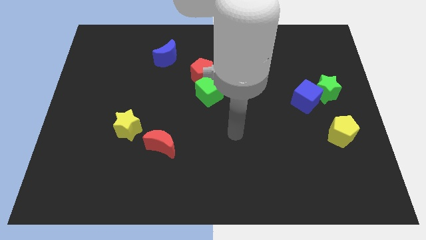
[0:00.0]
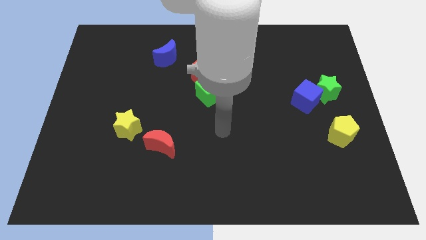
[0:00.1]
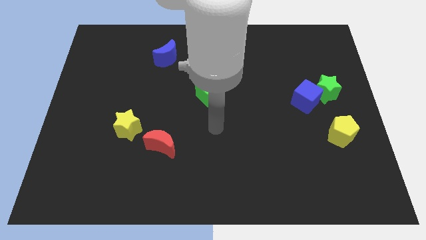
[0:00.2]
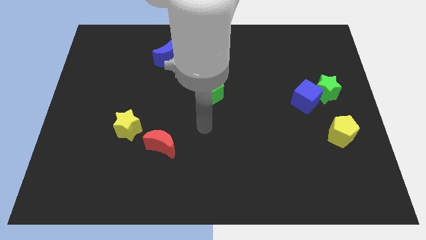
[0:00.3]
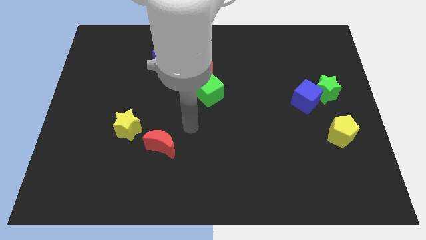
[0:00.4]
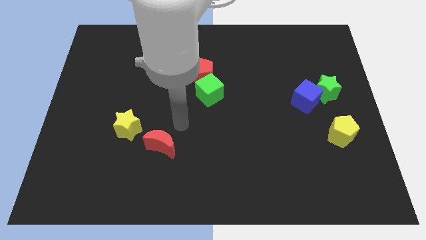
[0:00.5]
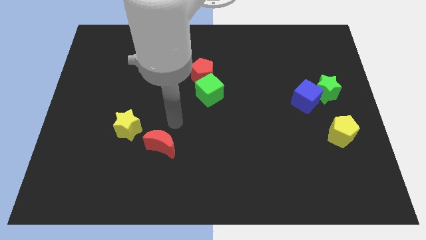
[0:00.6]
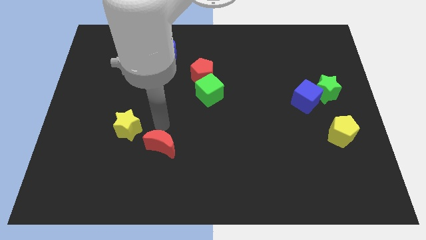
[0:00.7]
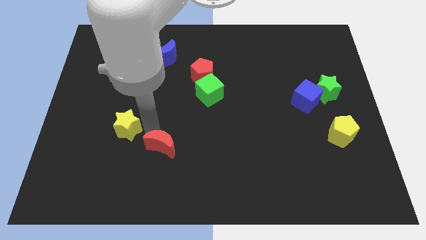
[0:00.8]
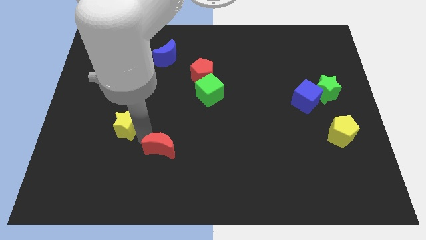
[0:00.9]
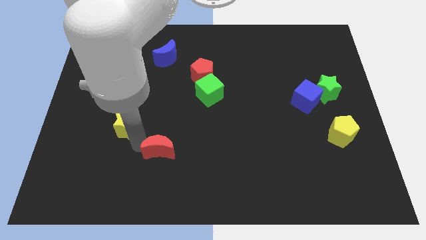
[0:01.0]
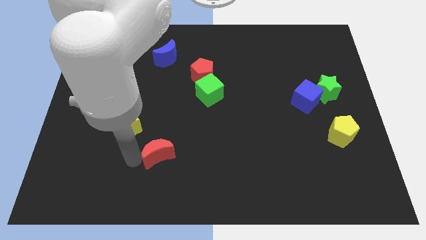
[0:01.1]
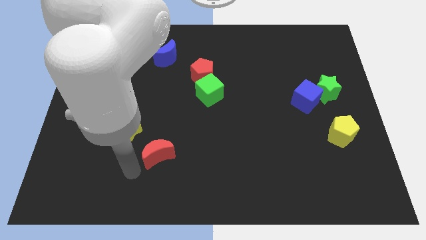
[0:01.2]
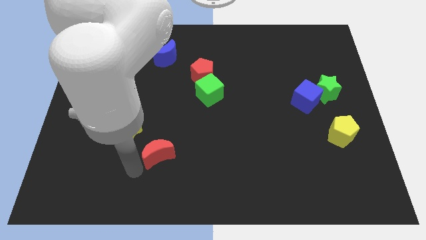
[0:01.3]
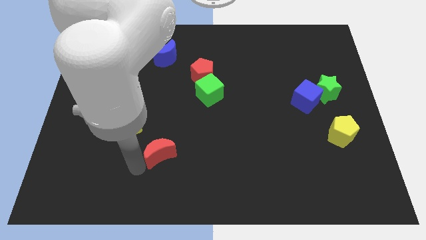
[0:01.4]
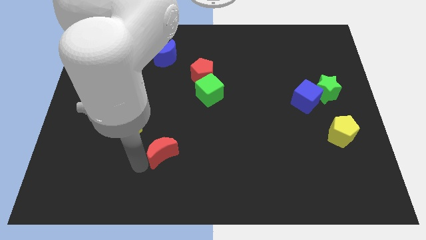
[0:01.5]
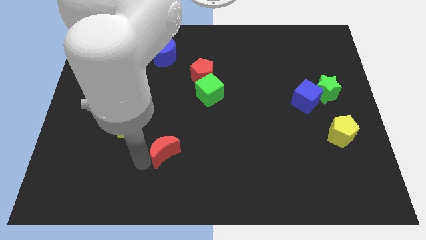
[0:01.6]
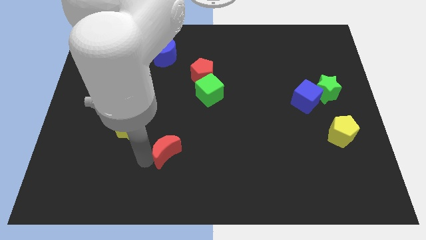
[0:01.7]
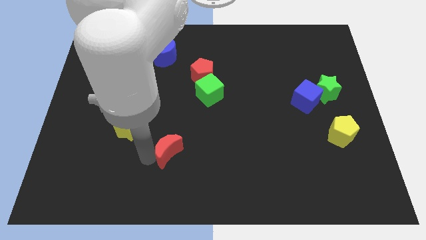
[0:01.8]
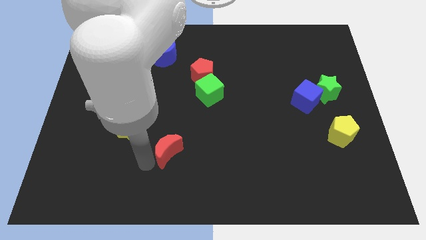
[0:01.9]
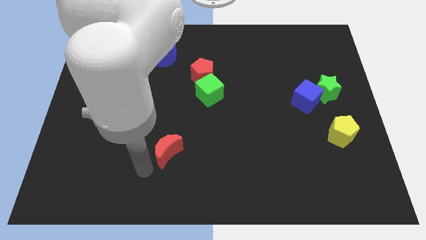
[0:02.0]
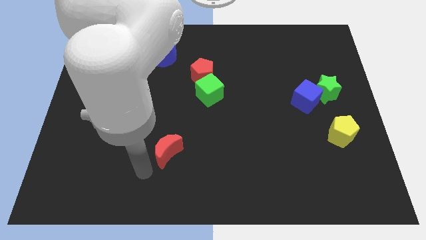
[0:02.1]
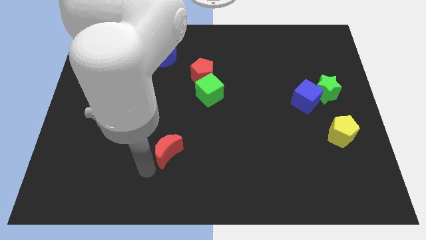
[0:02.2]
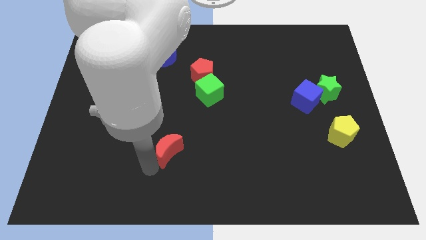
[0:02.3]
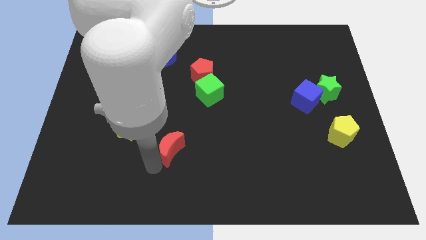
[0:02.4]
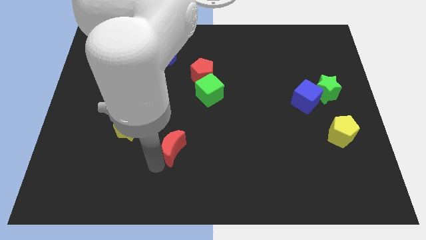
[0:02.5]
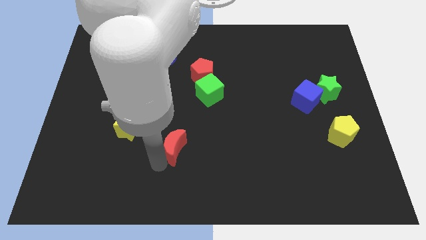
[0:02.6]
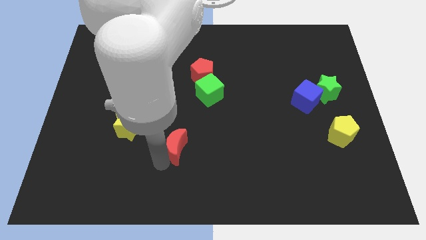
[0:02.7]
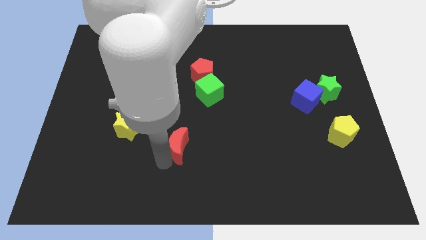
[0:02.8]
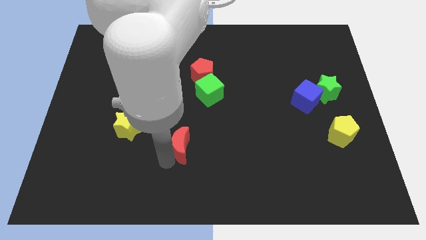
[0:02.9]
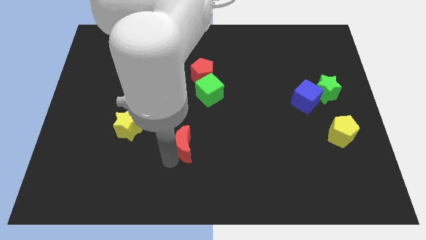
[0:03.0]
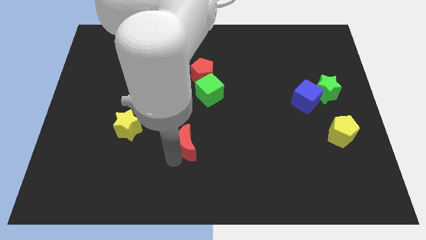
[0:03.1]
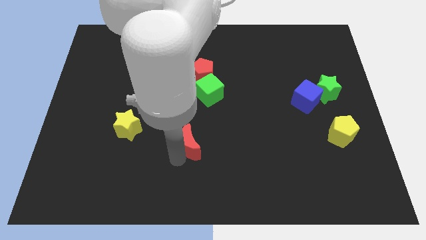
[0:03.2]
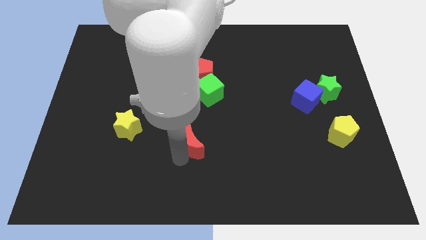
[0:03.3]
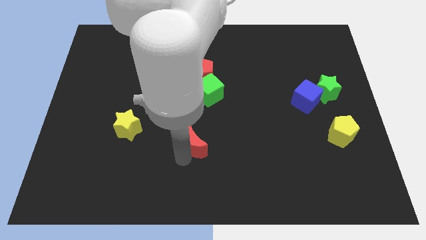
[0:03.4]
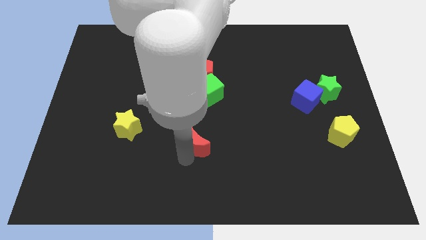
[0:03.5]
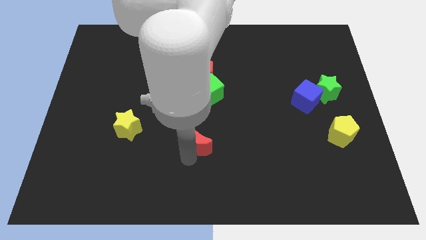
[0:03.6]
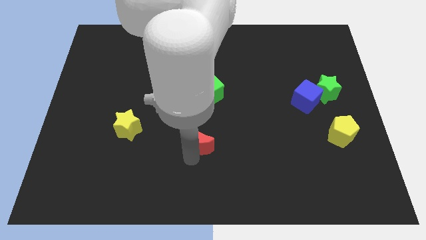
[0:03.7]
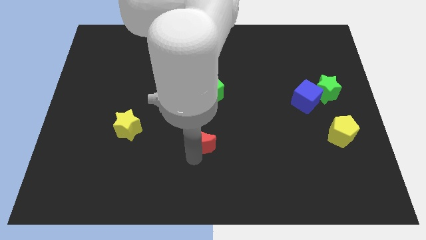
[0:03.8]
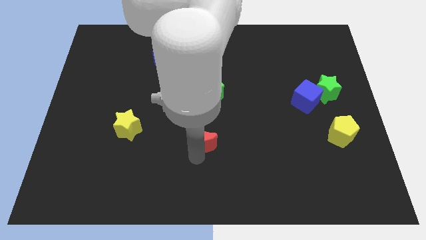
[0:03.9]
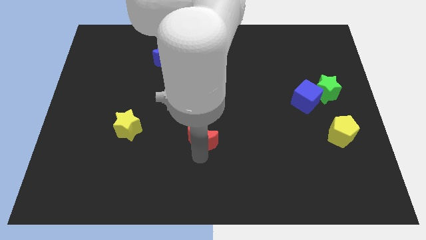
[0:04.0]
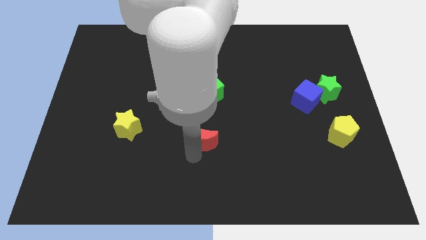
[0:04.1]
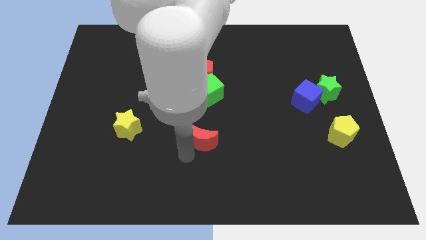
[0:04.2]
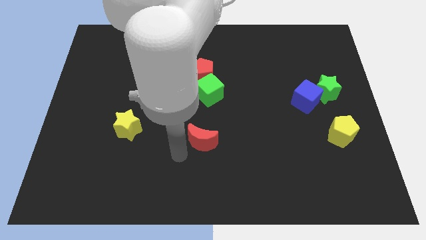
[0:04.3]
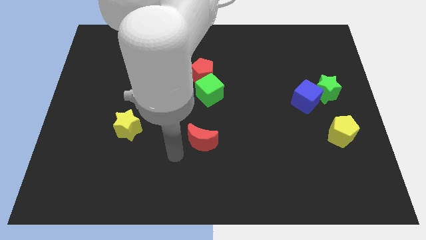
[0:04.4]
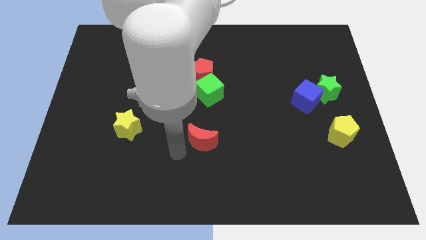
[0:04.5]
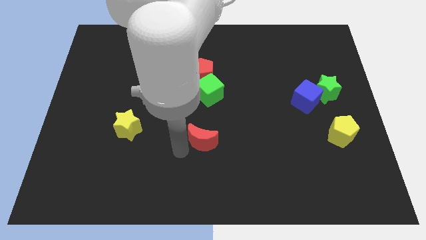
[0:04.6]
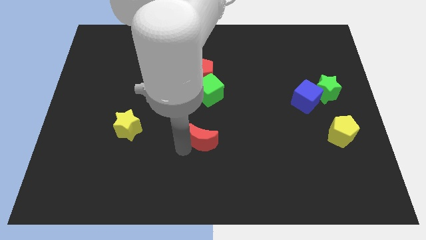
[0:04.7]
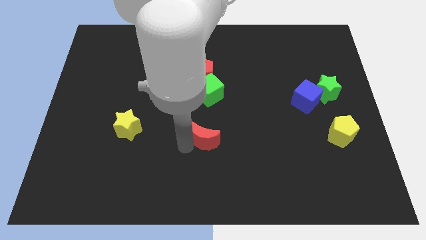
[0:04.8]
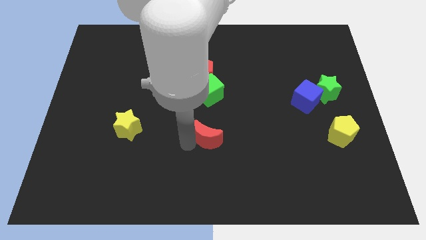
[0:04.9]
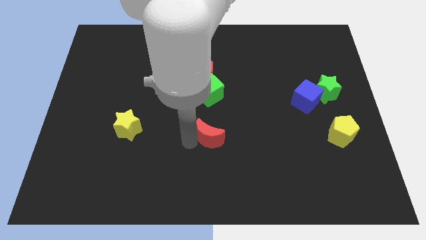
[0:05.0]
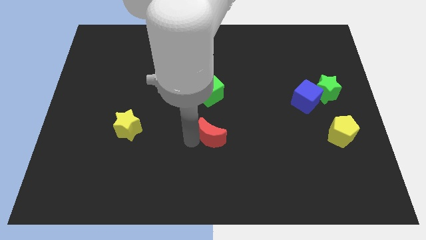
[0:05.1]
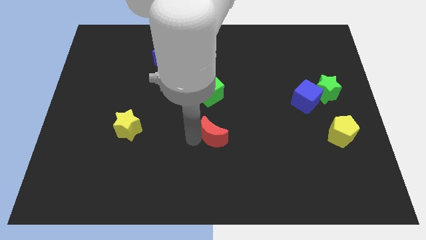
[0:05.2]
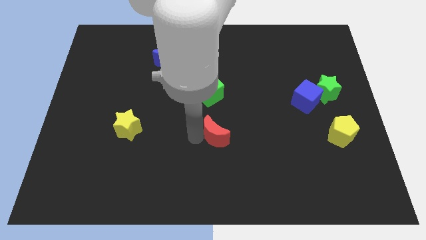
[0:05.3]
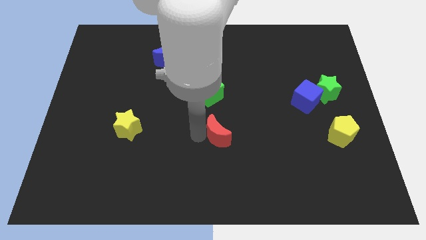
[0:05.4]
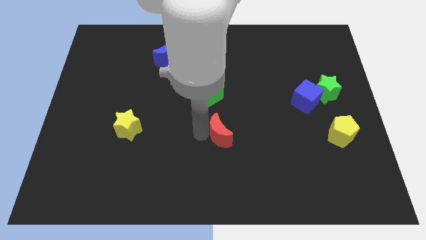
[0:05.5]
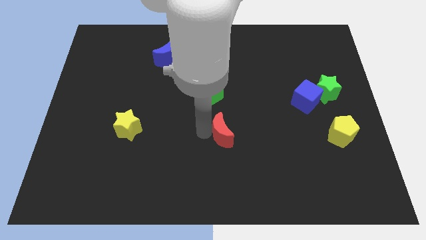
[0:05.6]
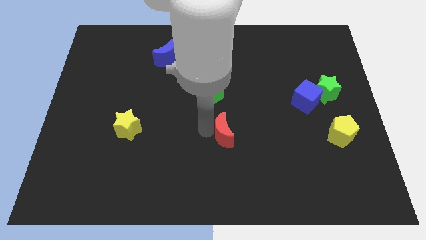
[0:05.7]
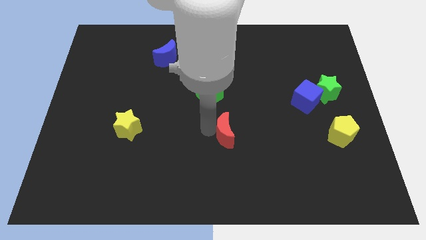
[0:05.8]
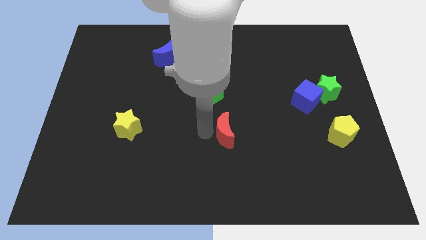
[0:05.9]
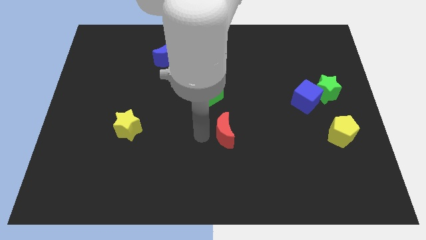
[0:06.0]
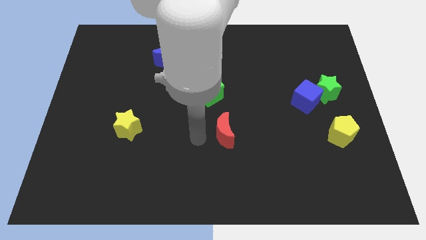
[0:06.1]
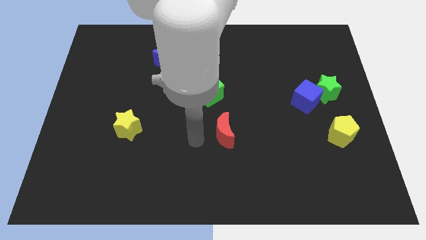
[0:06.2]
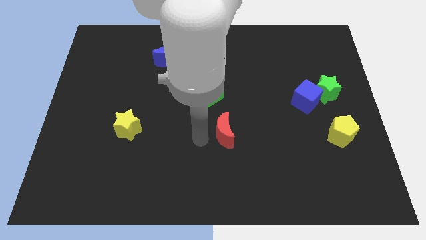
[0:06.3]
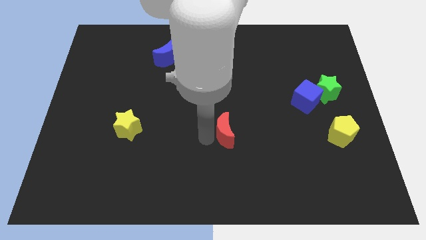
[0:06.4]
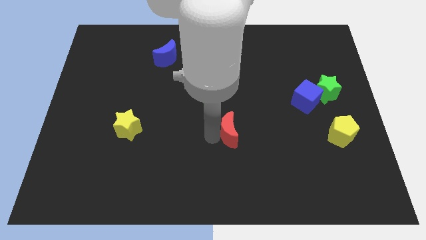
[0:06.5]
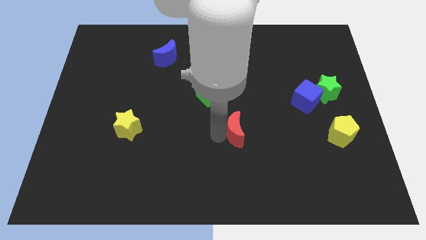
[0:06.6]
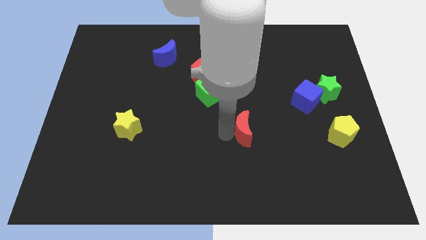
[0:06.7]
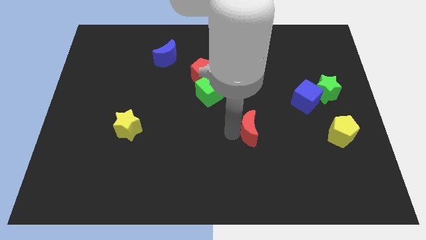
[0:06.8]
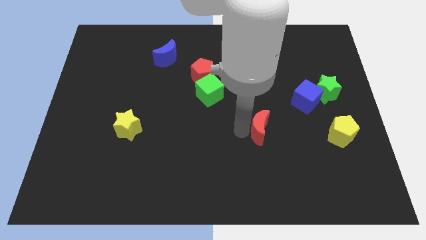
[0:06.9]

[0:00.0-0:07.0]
move the red moon to the right

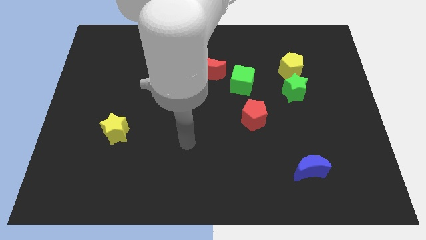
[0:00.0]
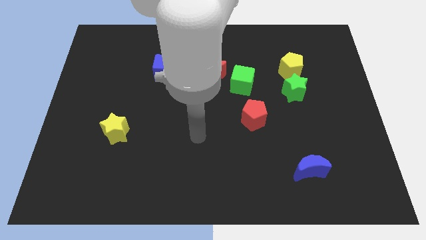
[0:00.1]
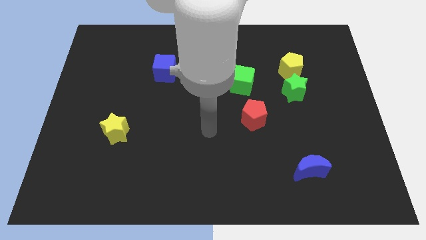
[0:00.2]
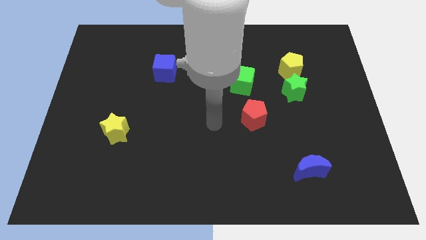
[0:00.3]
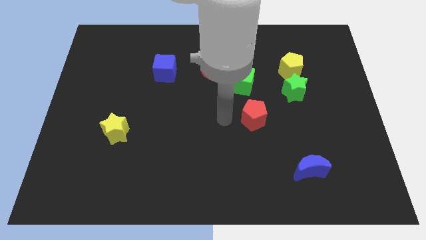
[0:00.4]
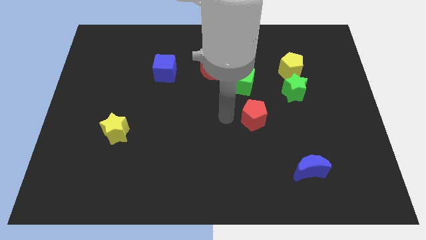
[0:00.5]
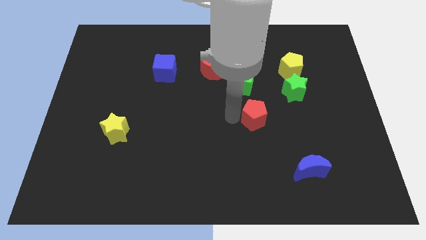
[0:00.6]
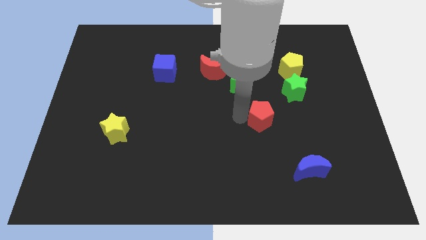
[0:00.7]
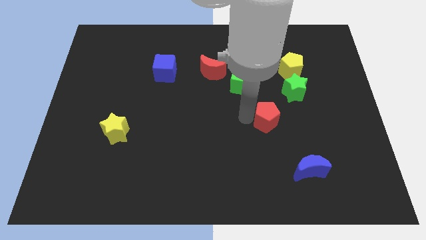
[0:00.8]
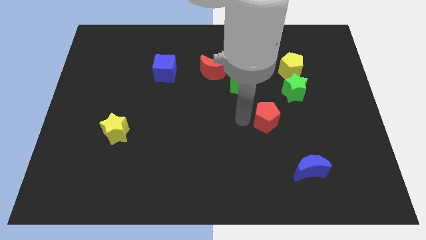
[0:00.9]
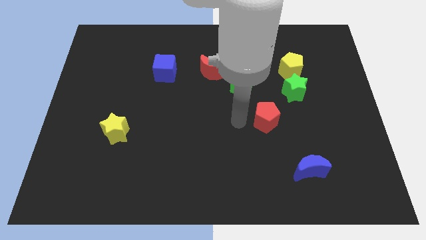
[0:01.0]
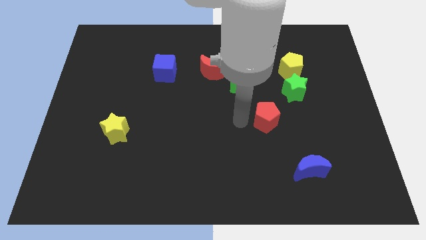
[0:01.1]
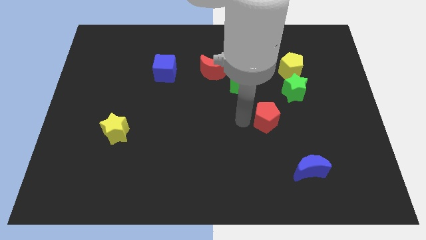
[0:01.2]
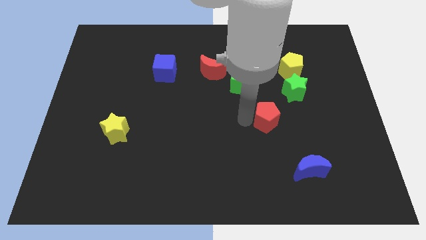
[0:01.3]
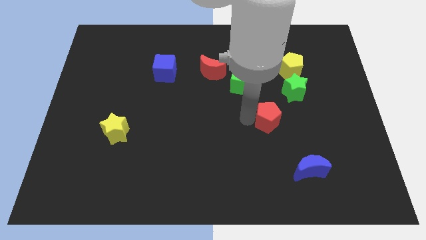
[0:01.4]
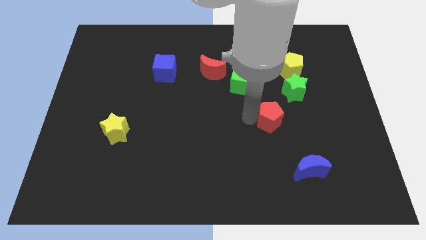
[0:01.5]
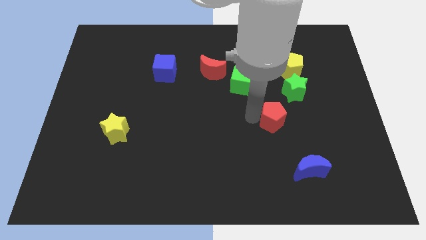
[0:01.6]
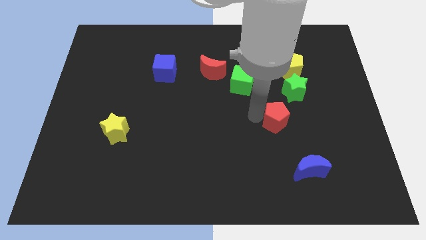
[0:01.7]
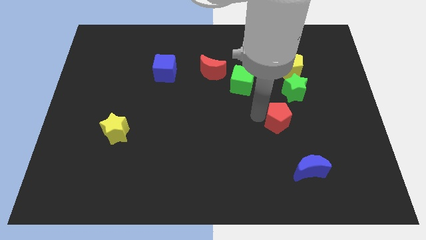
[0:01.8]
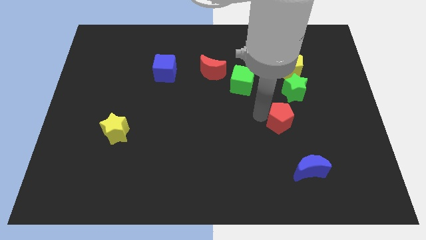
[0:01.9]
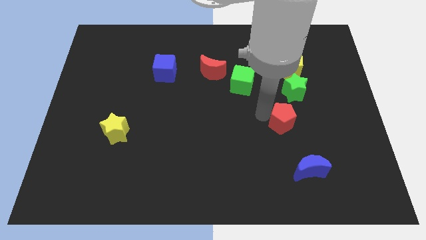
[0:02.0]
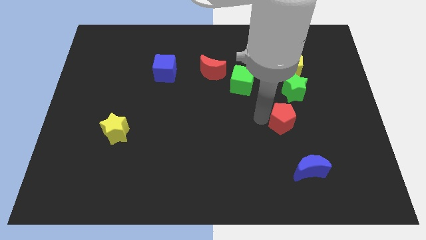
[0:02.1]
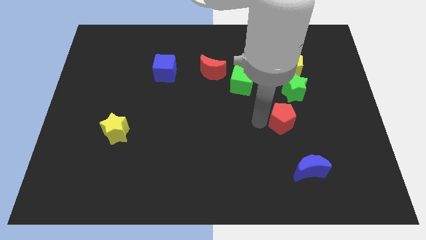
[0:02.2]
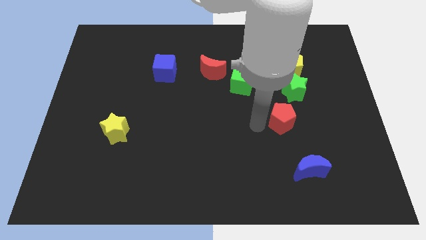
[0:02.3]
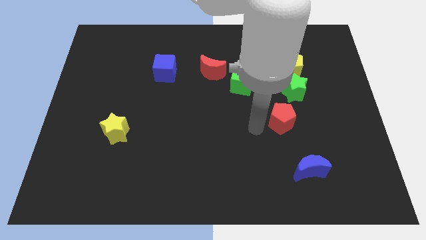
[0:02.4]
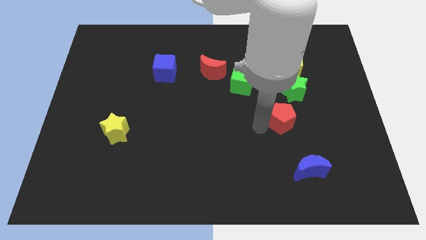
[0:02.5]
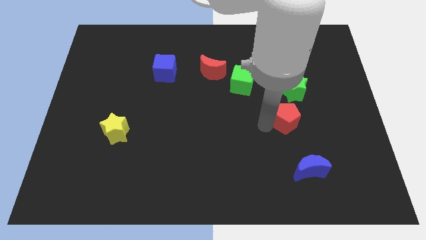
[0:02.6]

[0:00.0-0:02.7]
push the red pentagon to the right slightly
